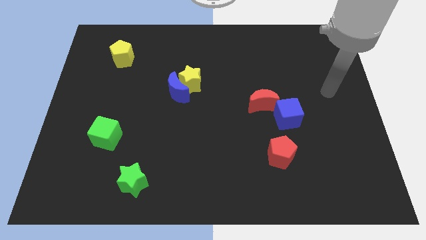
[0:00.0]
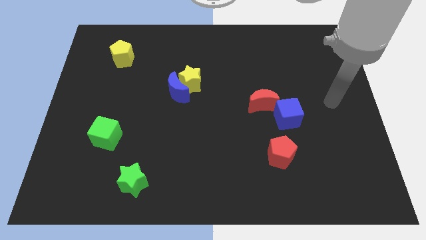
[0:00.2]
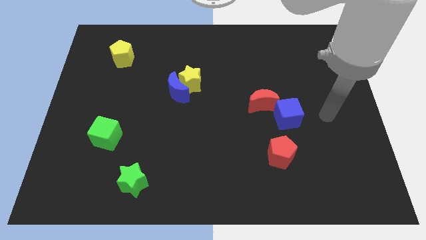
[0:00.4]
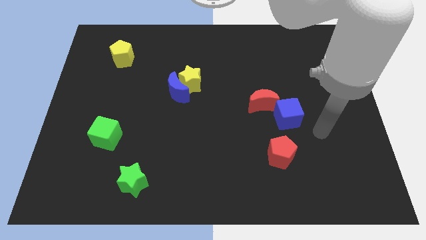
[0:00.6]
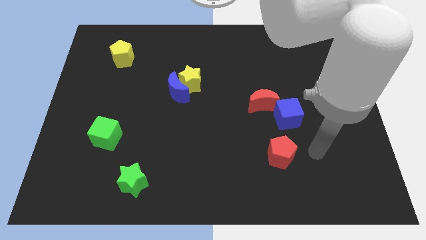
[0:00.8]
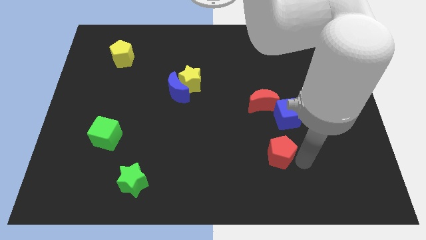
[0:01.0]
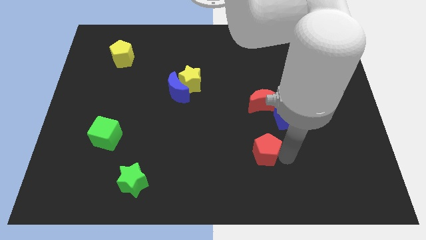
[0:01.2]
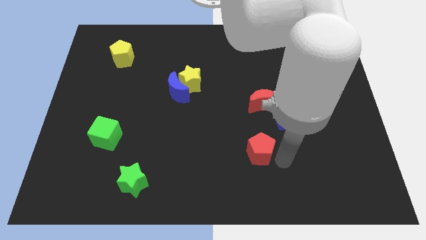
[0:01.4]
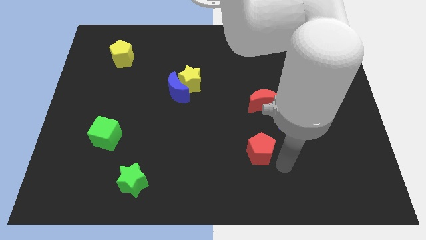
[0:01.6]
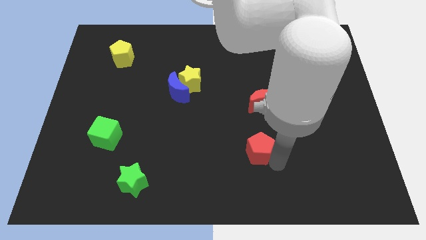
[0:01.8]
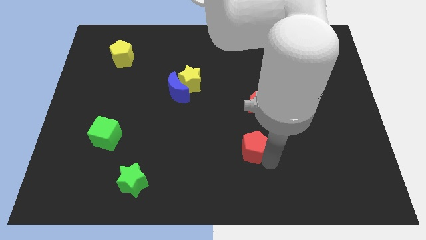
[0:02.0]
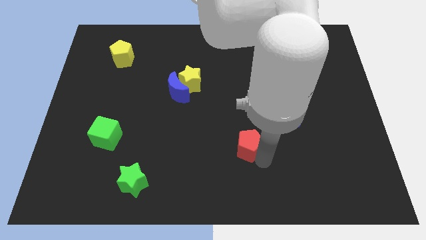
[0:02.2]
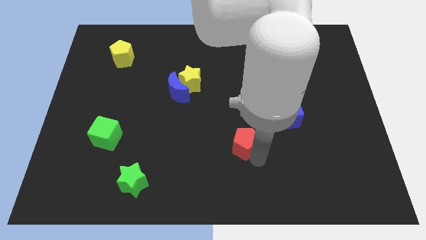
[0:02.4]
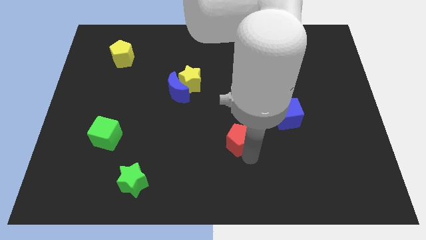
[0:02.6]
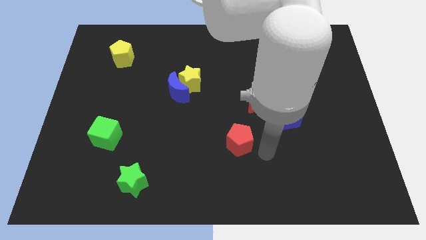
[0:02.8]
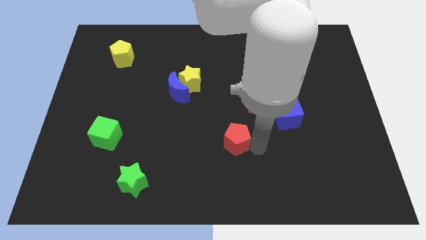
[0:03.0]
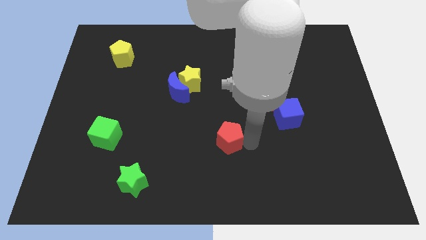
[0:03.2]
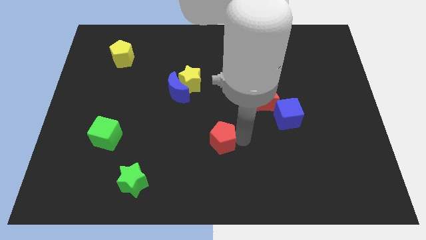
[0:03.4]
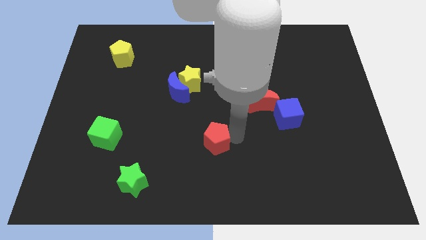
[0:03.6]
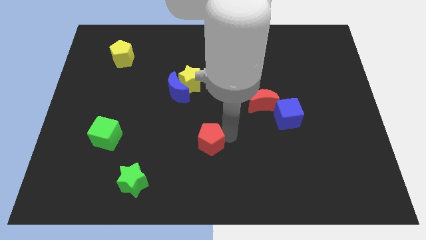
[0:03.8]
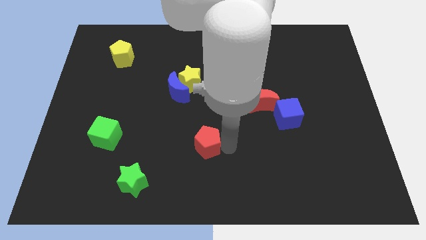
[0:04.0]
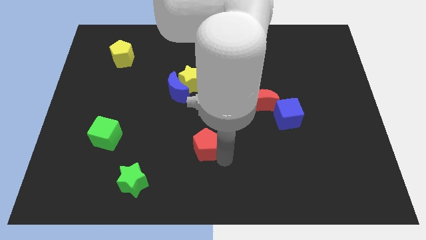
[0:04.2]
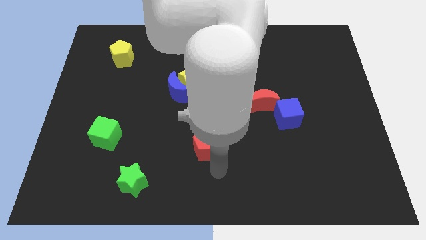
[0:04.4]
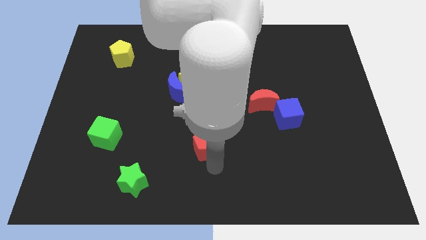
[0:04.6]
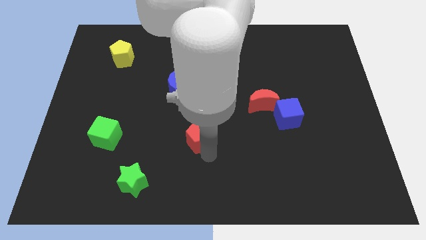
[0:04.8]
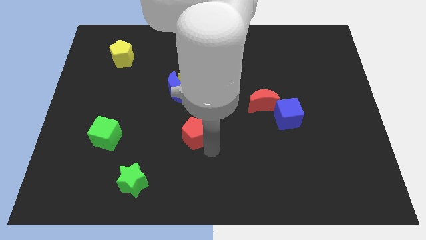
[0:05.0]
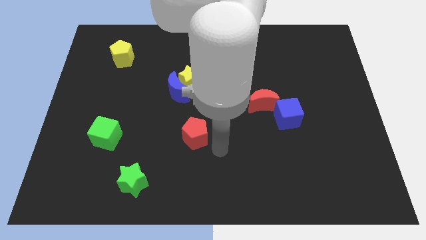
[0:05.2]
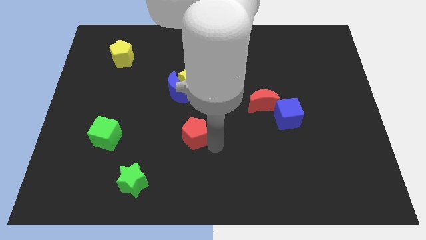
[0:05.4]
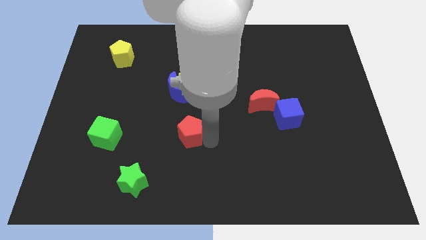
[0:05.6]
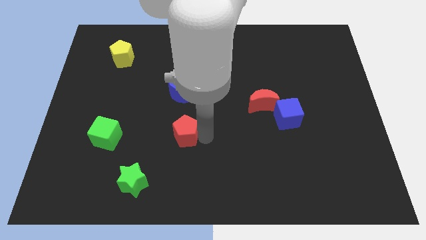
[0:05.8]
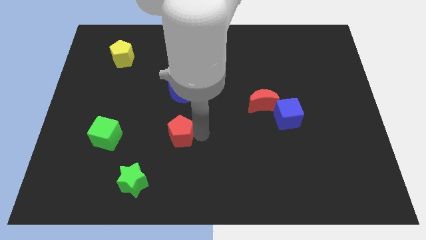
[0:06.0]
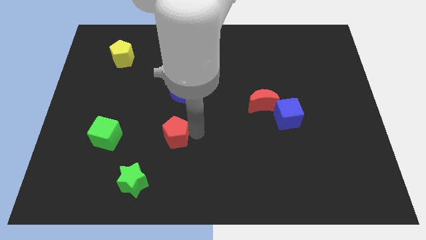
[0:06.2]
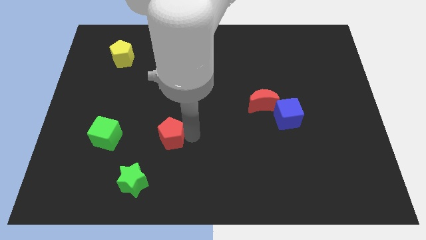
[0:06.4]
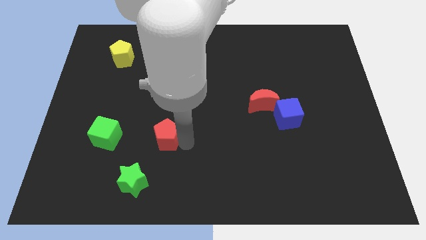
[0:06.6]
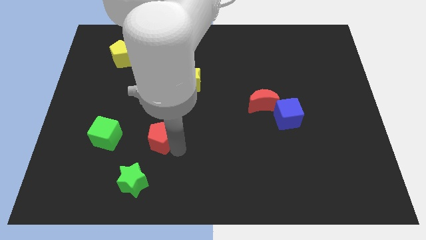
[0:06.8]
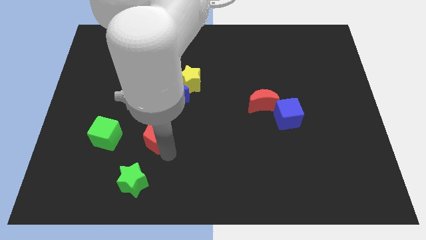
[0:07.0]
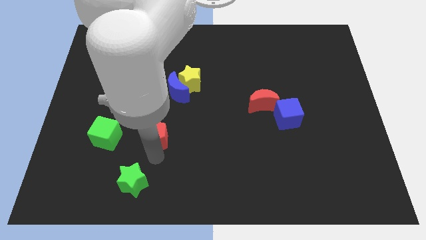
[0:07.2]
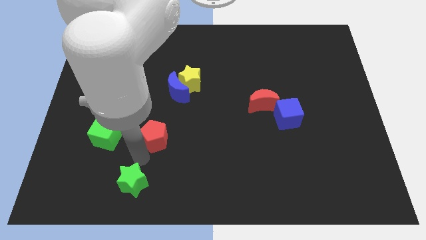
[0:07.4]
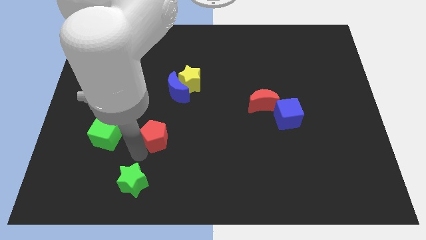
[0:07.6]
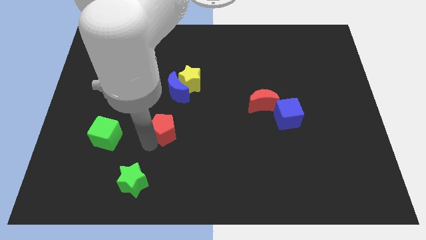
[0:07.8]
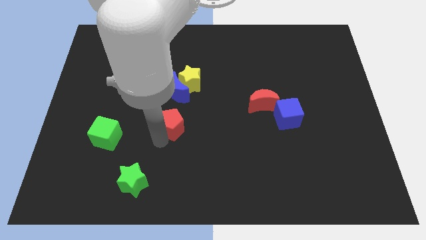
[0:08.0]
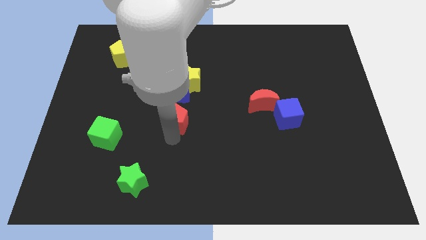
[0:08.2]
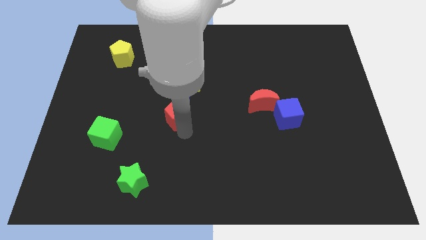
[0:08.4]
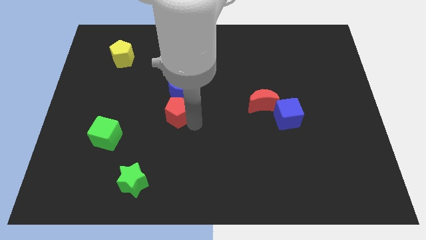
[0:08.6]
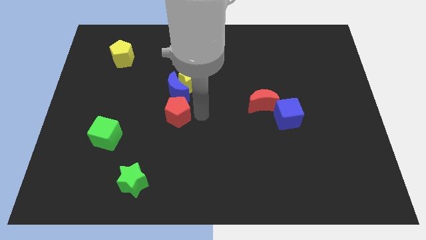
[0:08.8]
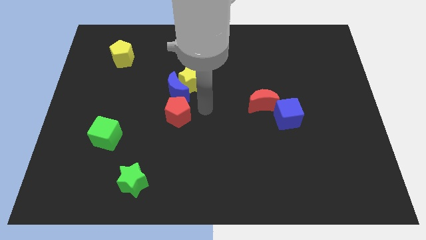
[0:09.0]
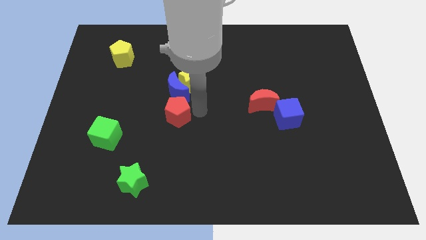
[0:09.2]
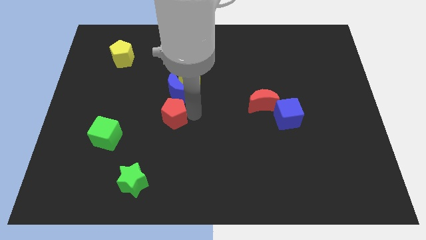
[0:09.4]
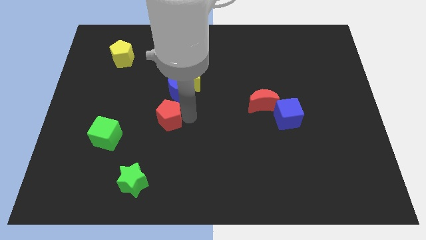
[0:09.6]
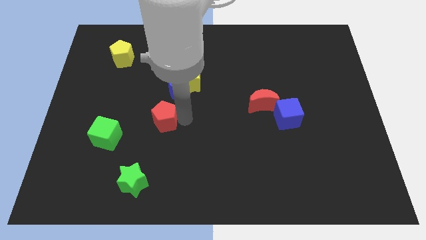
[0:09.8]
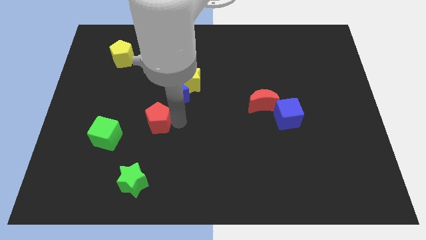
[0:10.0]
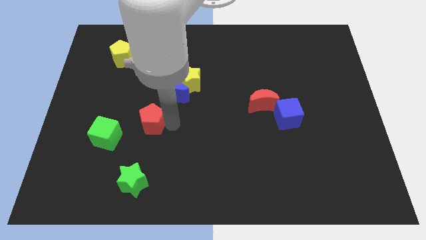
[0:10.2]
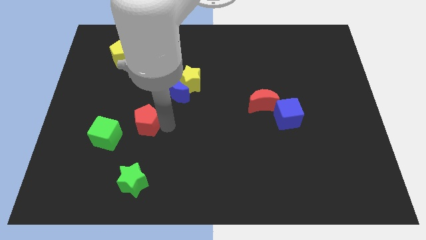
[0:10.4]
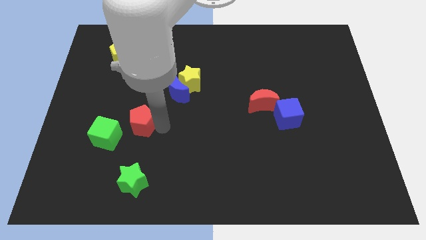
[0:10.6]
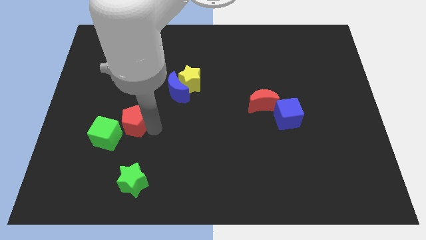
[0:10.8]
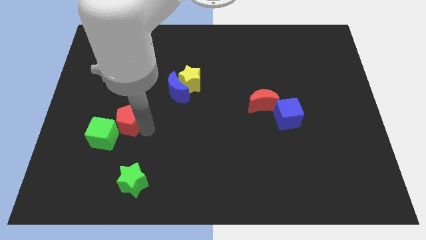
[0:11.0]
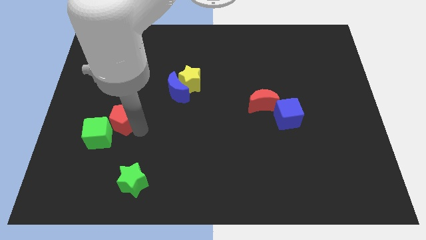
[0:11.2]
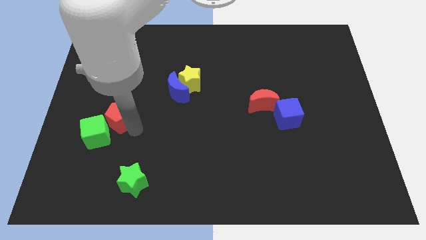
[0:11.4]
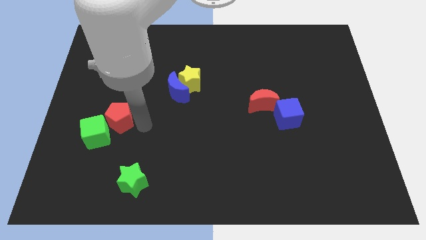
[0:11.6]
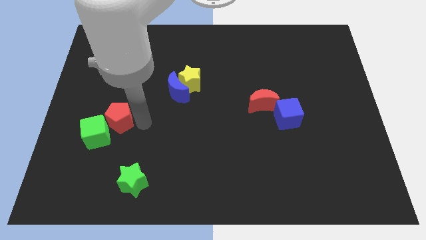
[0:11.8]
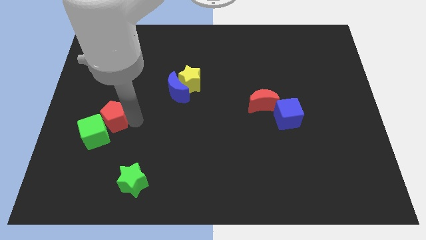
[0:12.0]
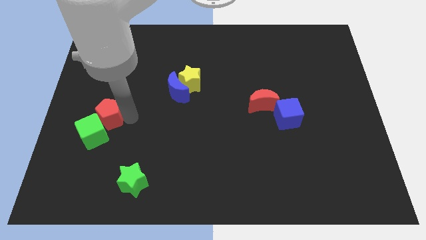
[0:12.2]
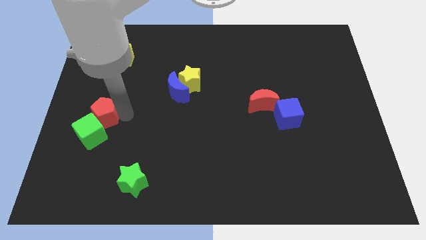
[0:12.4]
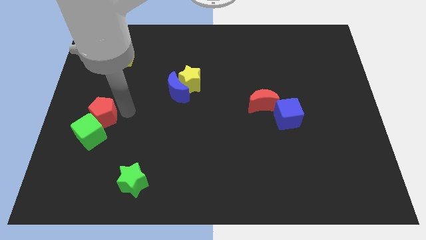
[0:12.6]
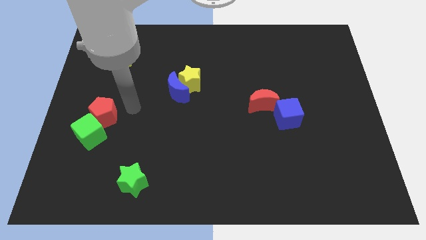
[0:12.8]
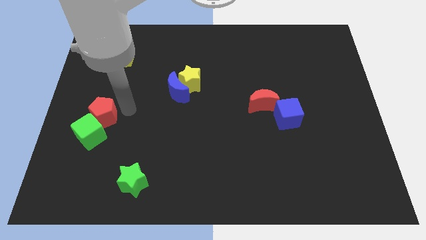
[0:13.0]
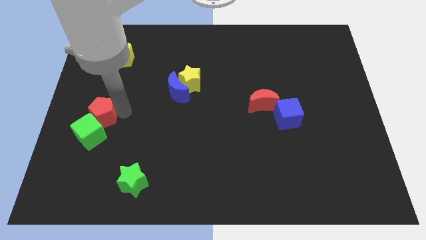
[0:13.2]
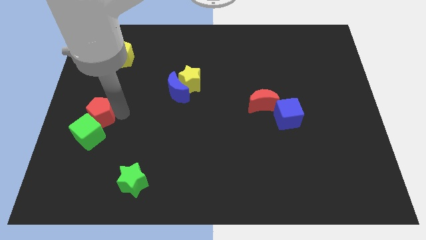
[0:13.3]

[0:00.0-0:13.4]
put the red pentagon to the left side of the board
